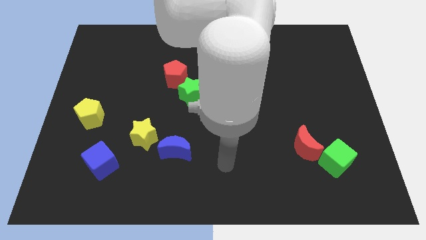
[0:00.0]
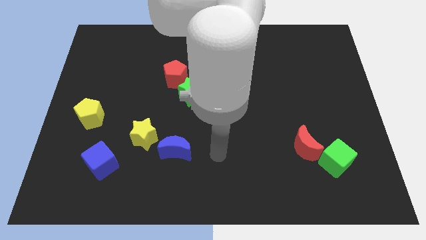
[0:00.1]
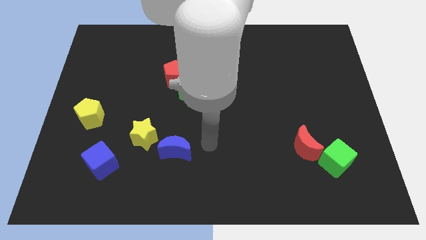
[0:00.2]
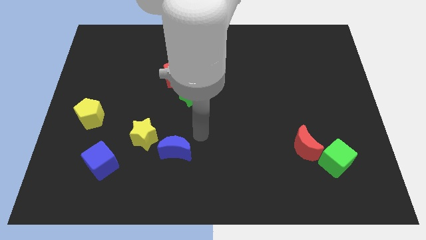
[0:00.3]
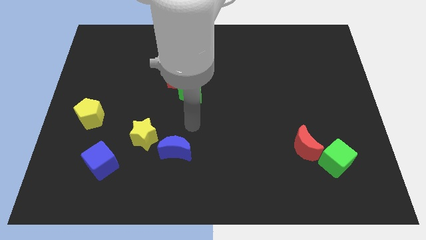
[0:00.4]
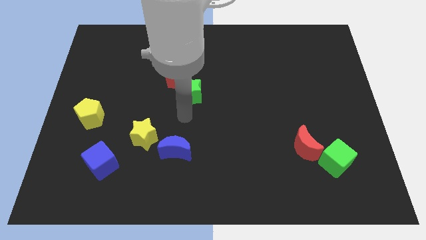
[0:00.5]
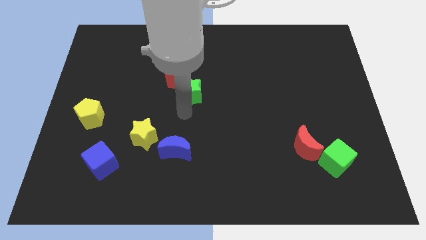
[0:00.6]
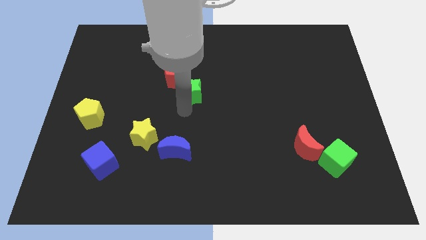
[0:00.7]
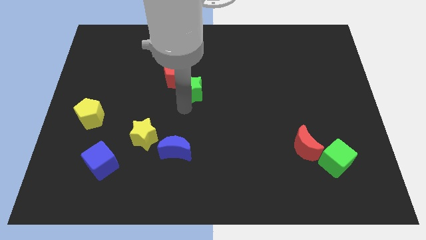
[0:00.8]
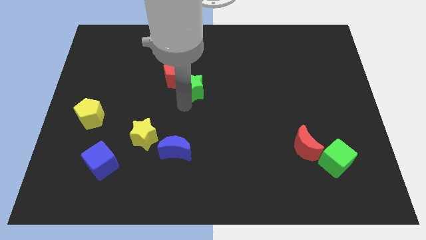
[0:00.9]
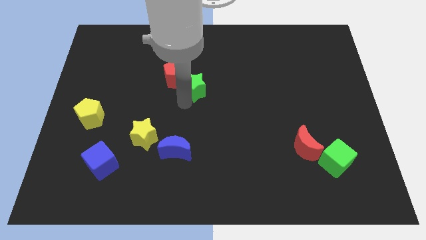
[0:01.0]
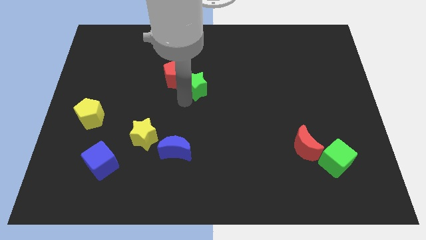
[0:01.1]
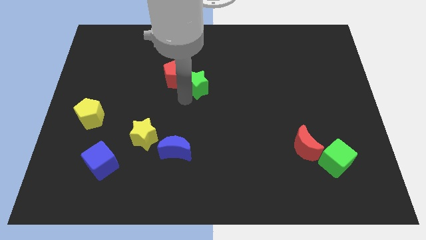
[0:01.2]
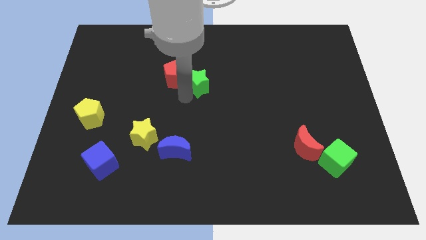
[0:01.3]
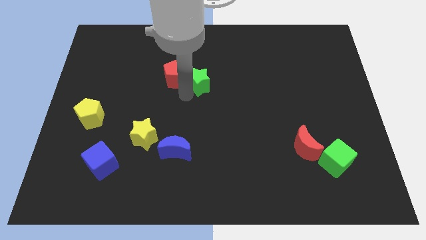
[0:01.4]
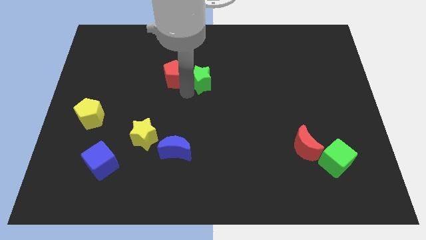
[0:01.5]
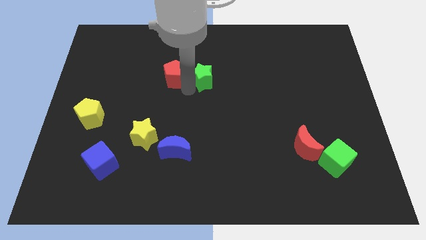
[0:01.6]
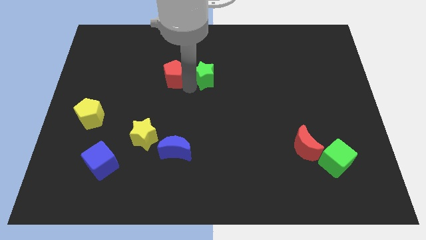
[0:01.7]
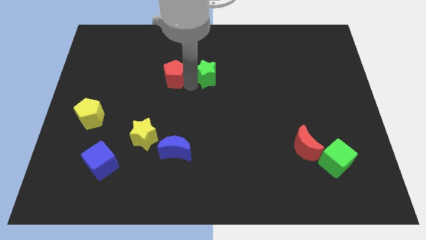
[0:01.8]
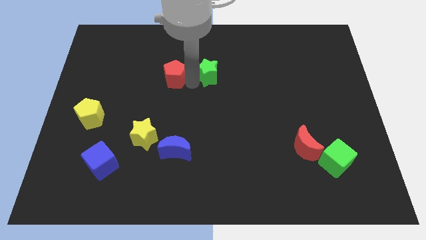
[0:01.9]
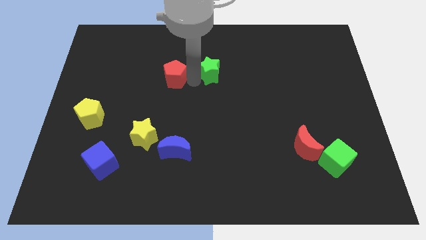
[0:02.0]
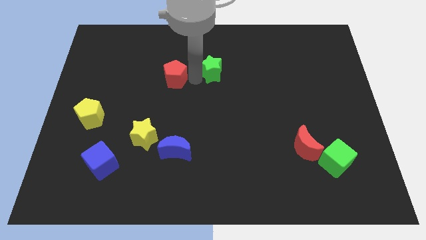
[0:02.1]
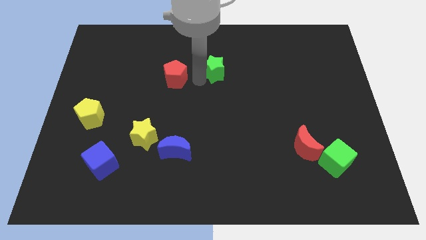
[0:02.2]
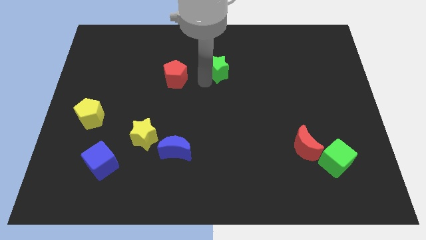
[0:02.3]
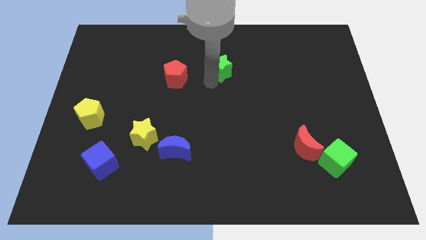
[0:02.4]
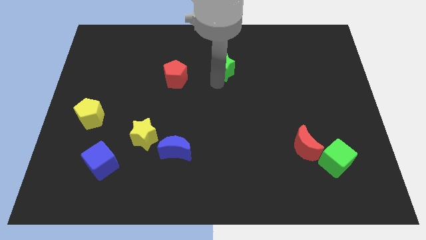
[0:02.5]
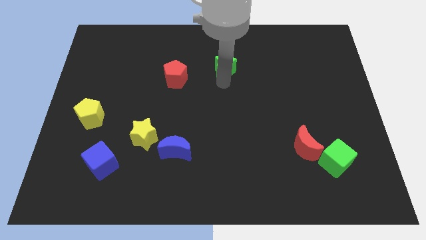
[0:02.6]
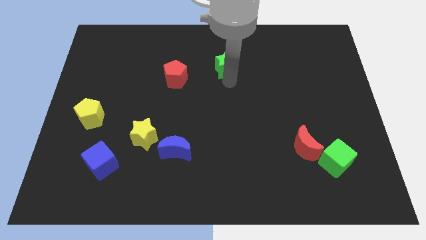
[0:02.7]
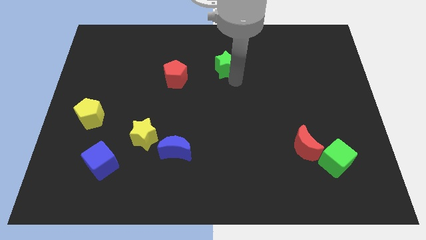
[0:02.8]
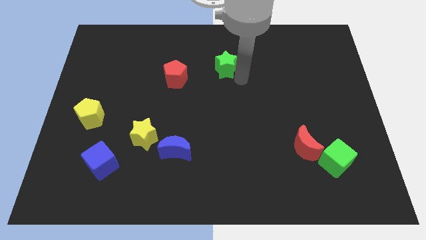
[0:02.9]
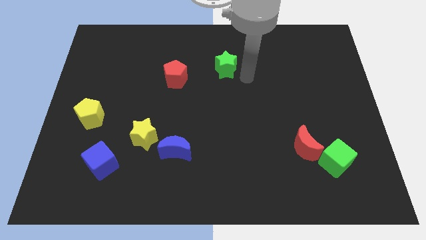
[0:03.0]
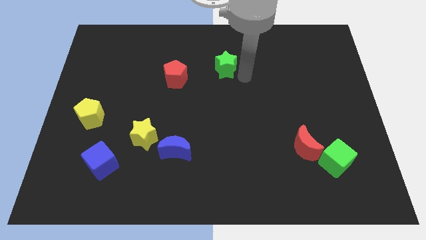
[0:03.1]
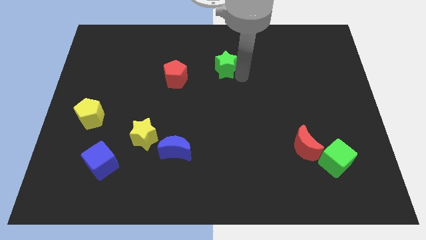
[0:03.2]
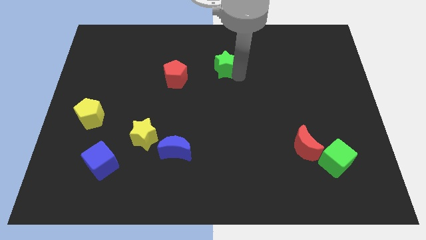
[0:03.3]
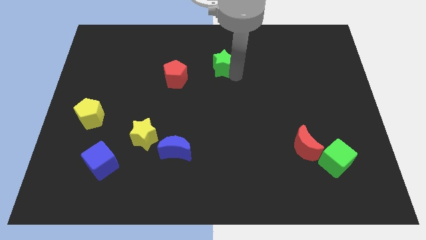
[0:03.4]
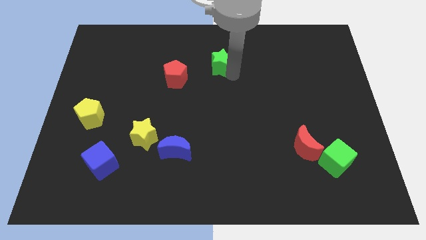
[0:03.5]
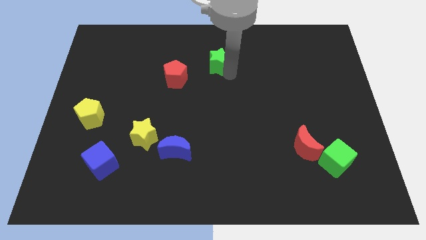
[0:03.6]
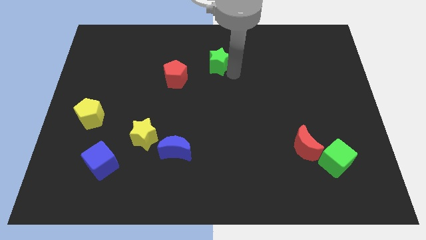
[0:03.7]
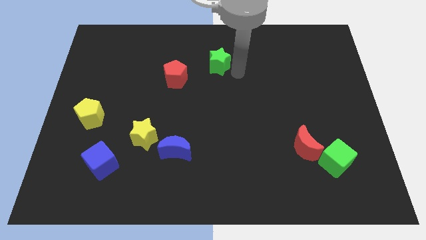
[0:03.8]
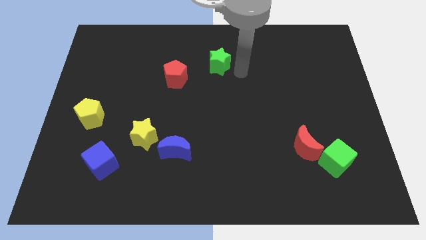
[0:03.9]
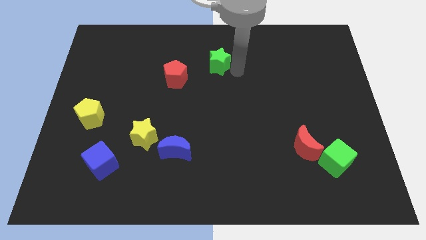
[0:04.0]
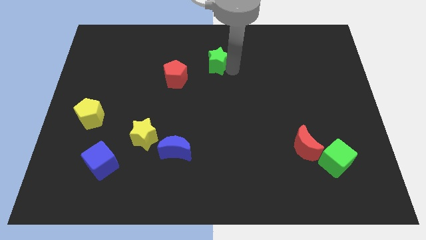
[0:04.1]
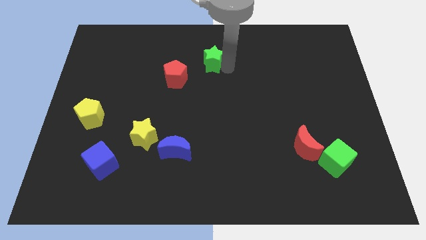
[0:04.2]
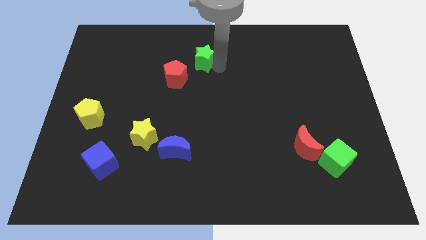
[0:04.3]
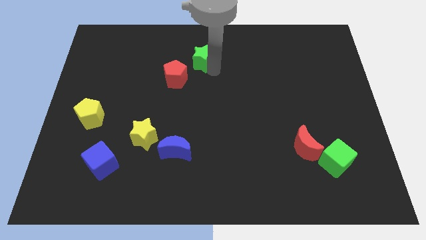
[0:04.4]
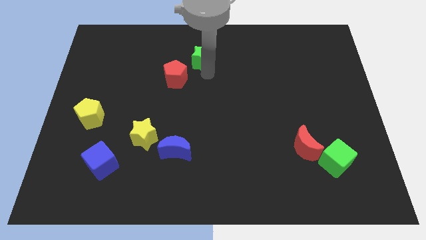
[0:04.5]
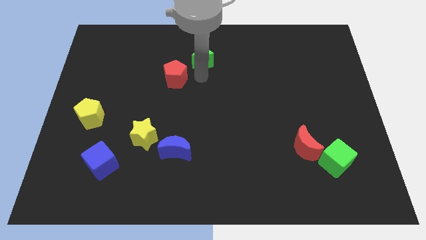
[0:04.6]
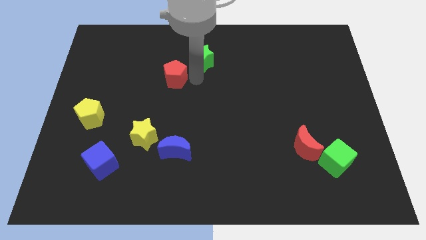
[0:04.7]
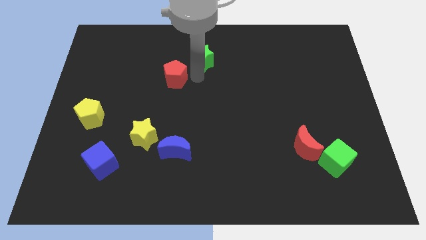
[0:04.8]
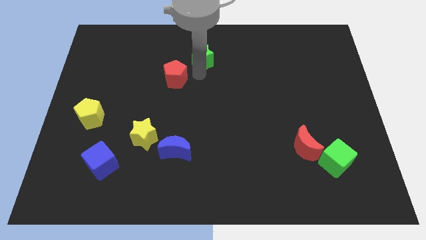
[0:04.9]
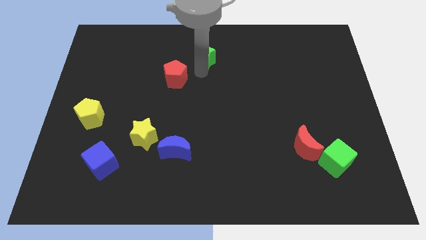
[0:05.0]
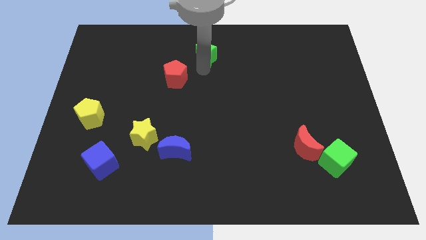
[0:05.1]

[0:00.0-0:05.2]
move the green star to the top

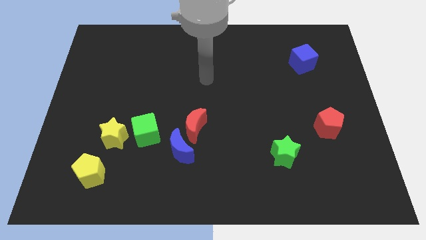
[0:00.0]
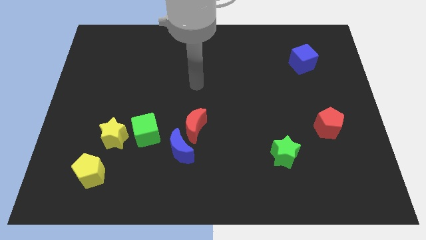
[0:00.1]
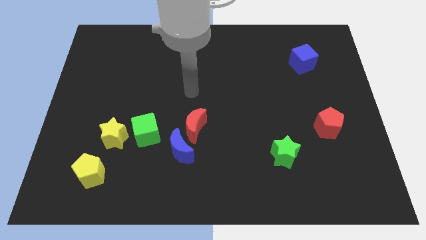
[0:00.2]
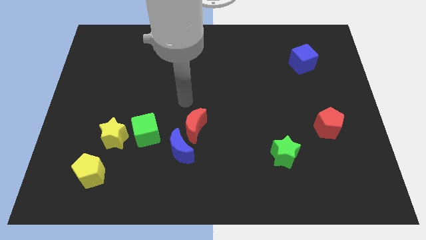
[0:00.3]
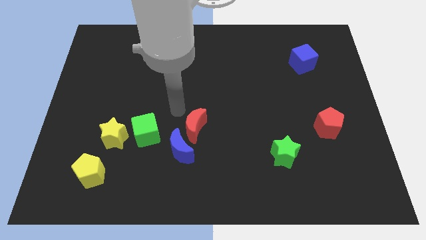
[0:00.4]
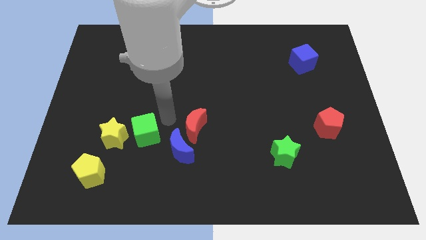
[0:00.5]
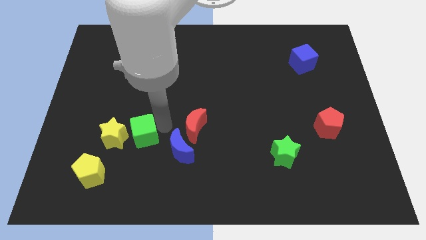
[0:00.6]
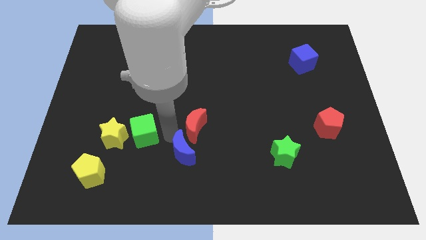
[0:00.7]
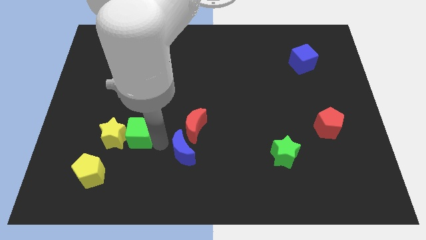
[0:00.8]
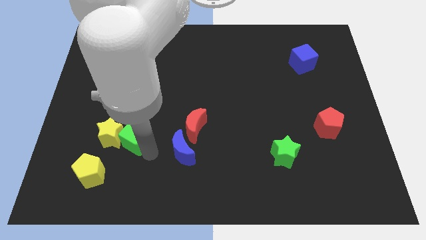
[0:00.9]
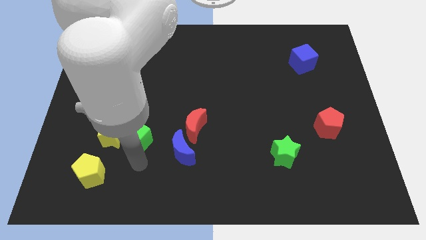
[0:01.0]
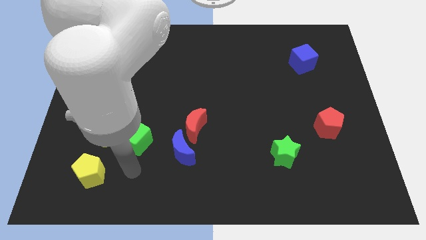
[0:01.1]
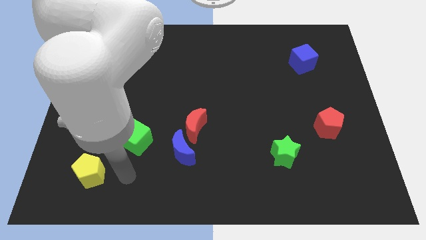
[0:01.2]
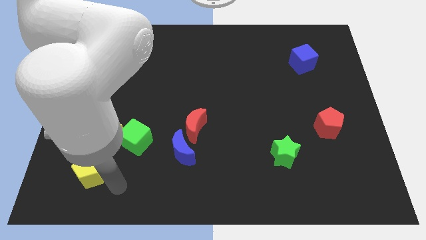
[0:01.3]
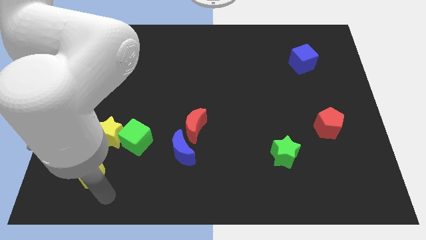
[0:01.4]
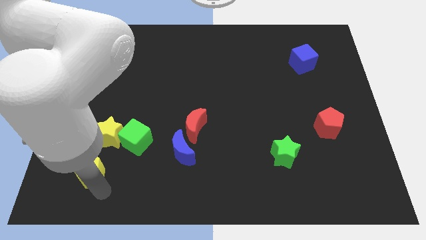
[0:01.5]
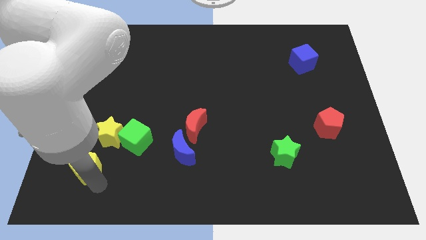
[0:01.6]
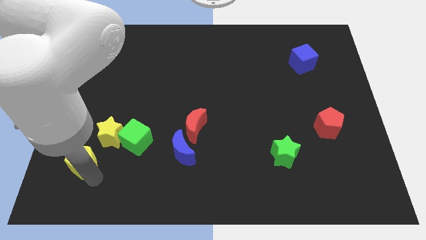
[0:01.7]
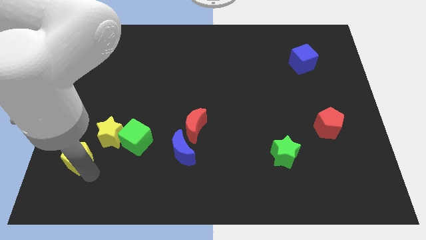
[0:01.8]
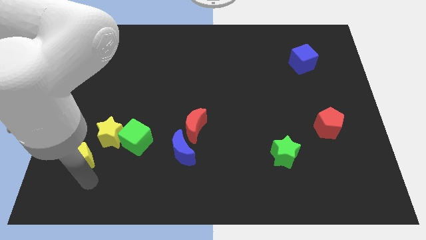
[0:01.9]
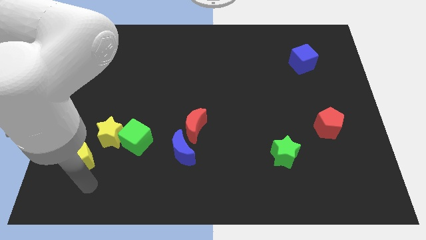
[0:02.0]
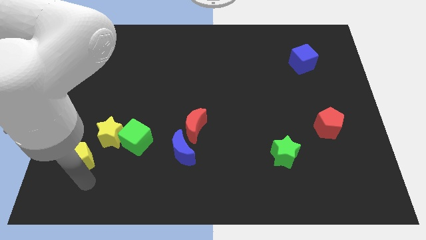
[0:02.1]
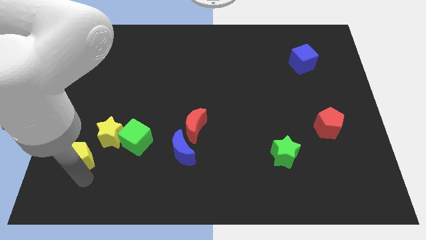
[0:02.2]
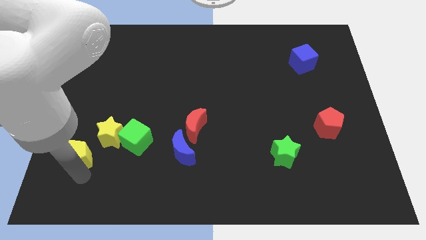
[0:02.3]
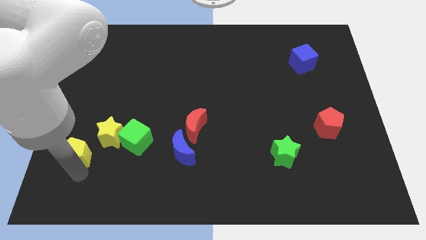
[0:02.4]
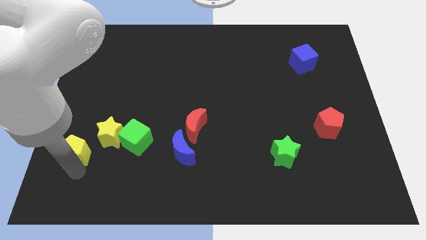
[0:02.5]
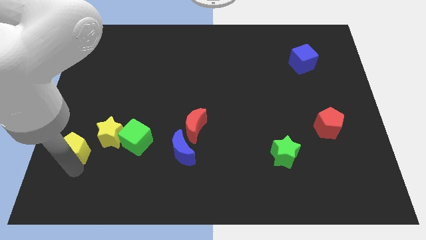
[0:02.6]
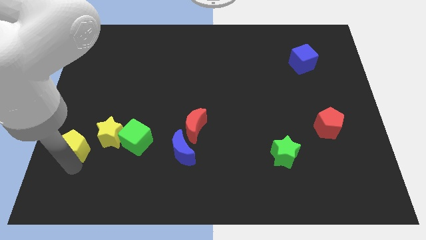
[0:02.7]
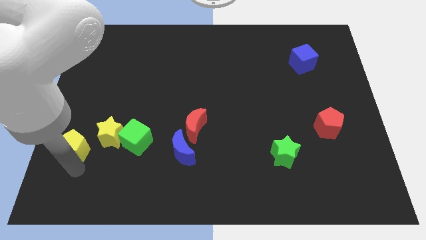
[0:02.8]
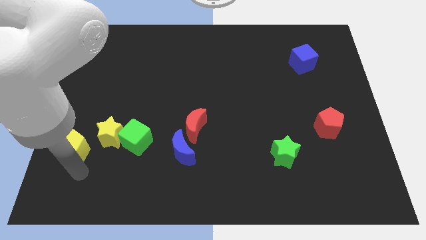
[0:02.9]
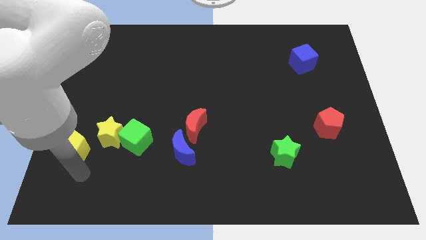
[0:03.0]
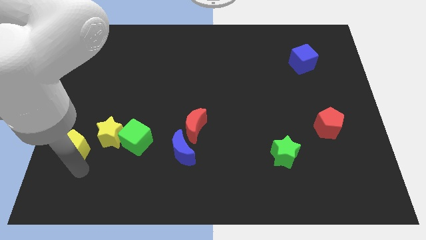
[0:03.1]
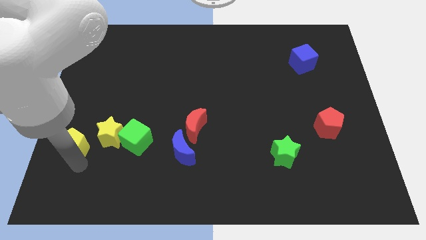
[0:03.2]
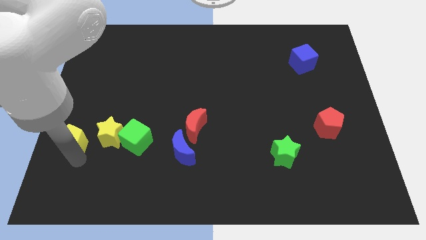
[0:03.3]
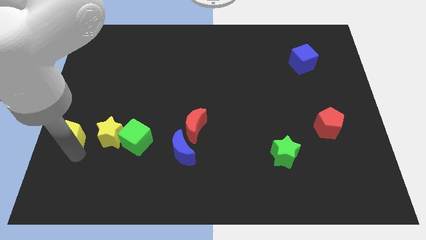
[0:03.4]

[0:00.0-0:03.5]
push the yellow pentagon to the left side of the board
